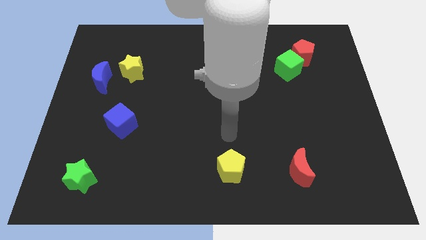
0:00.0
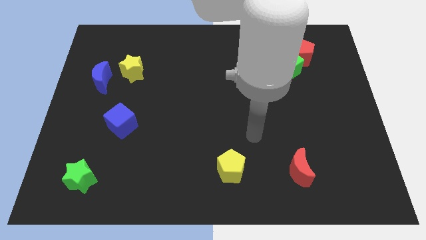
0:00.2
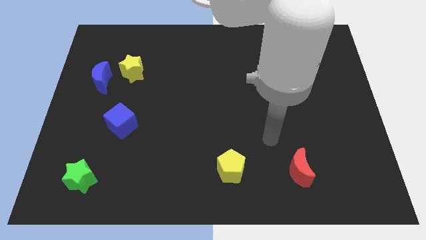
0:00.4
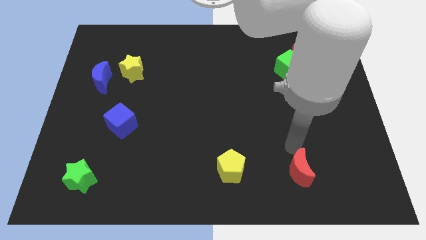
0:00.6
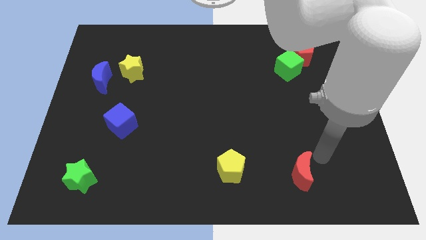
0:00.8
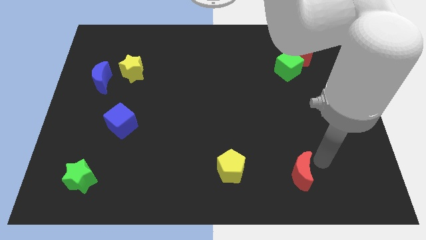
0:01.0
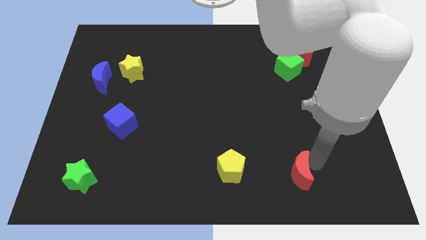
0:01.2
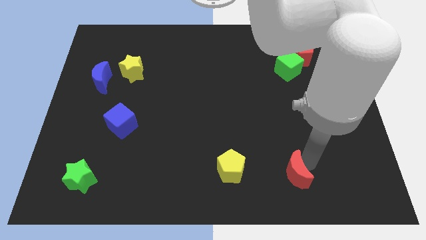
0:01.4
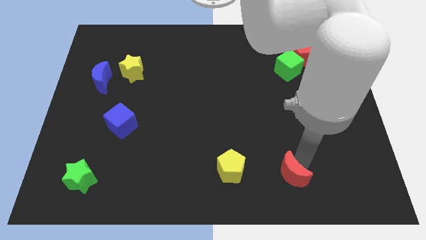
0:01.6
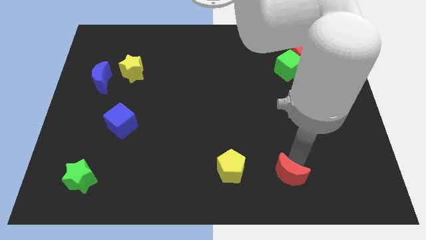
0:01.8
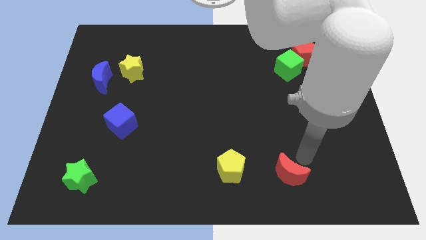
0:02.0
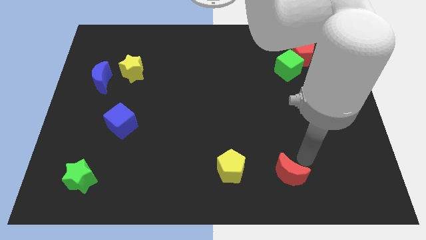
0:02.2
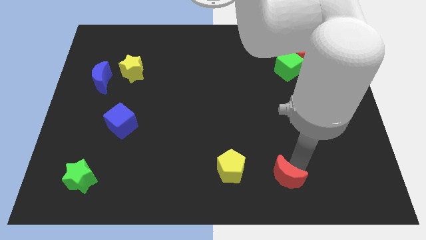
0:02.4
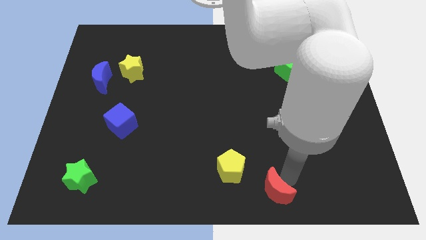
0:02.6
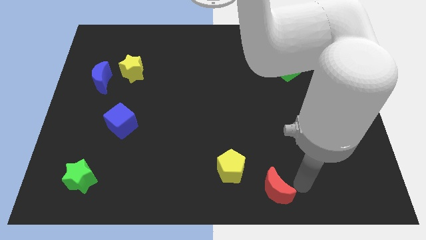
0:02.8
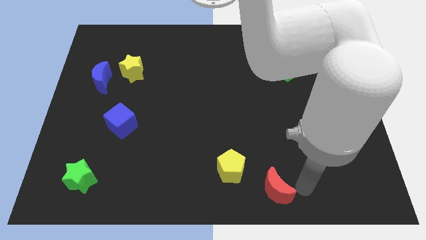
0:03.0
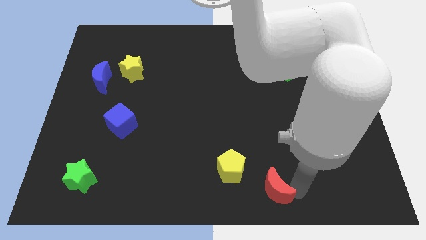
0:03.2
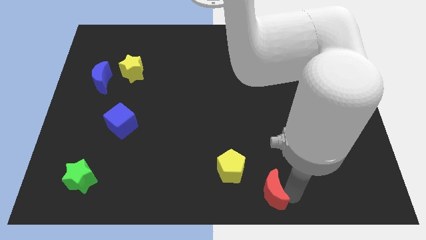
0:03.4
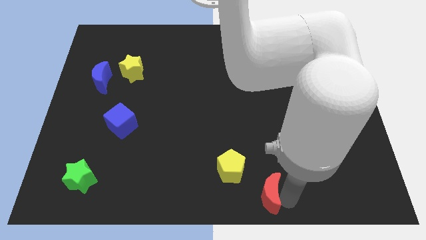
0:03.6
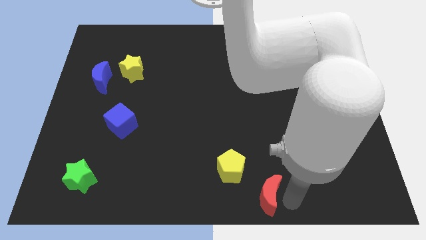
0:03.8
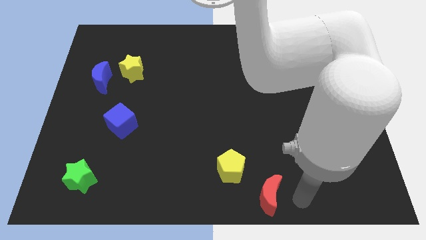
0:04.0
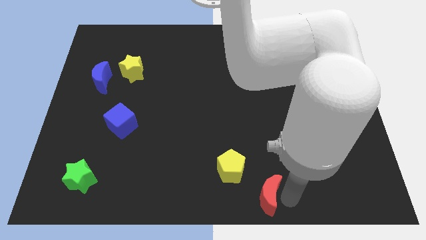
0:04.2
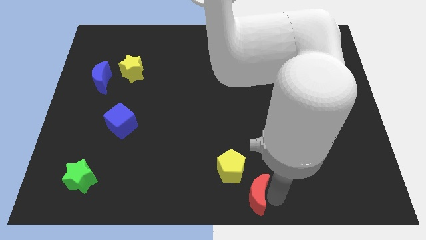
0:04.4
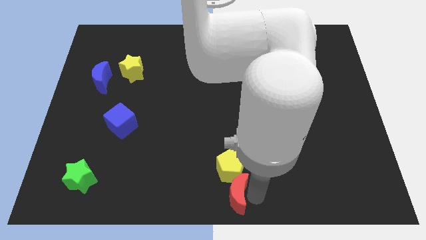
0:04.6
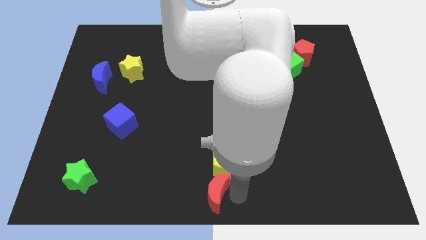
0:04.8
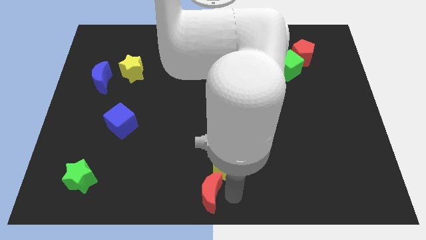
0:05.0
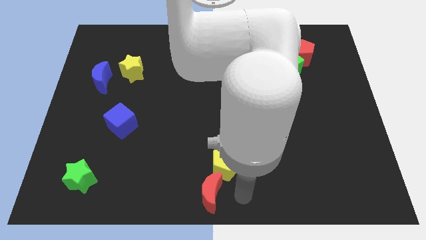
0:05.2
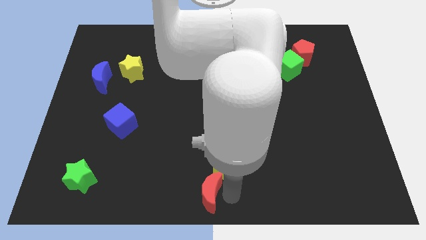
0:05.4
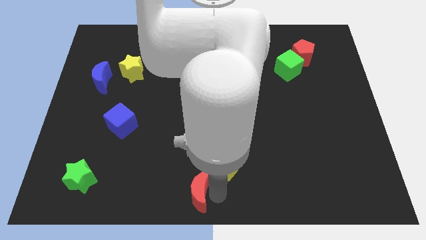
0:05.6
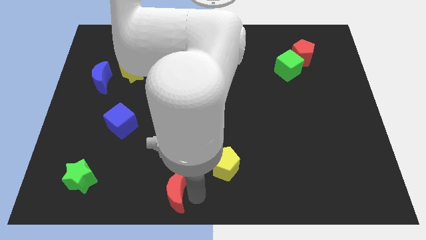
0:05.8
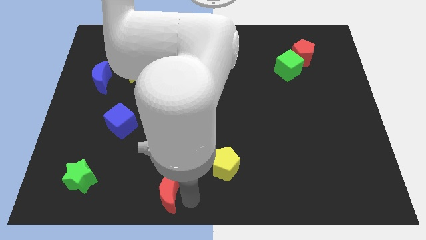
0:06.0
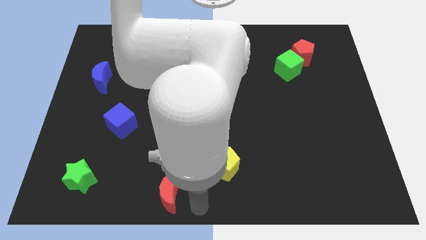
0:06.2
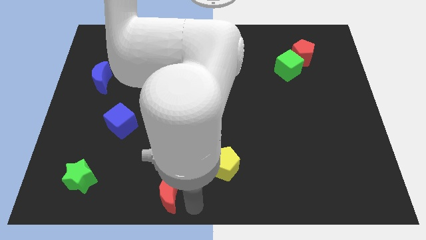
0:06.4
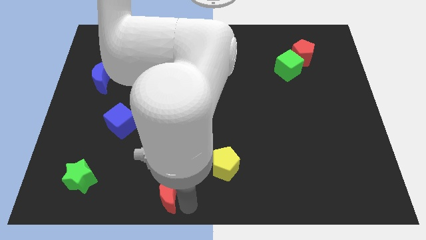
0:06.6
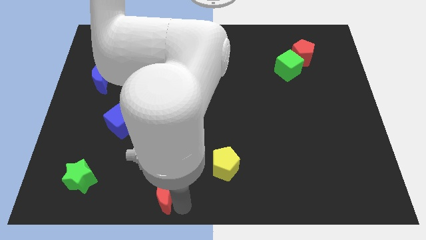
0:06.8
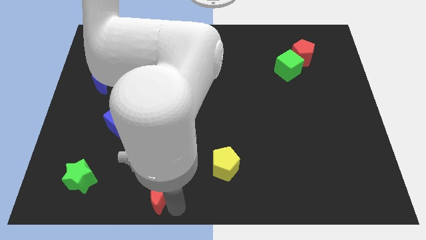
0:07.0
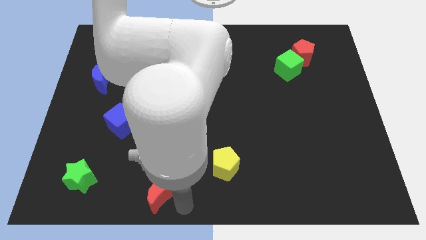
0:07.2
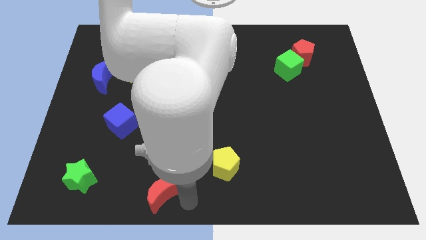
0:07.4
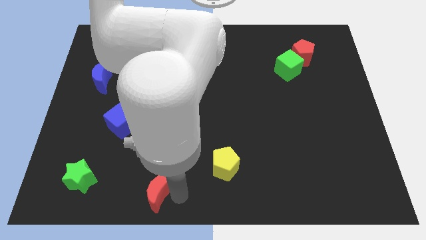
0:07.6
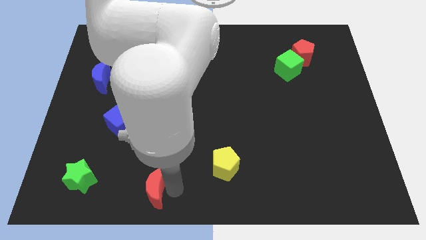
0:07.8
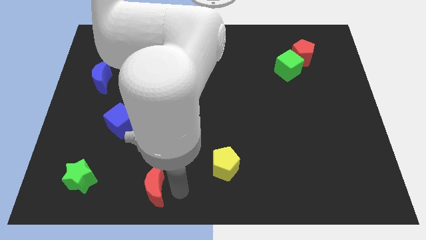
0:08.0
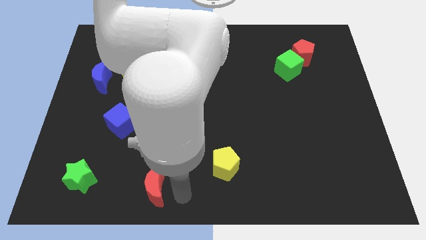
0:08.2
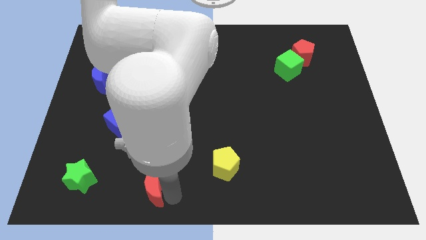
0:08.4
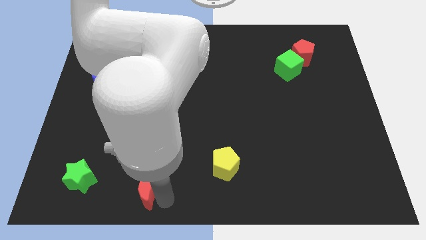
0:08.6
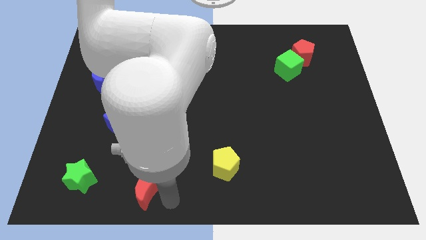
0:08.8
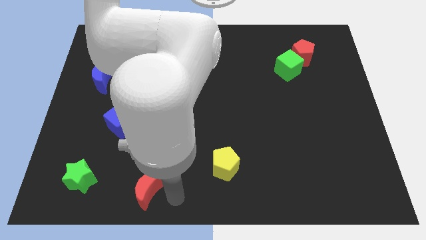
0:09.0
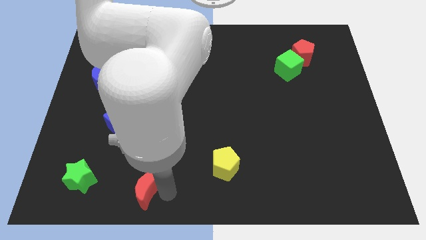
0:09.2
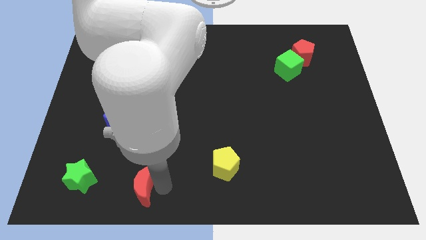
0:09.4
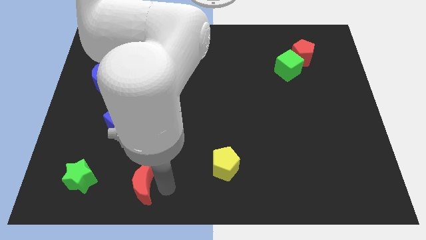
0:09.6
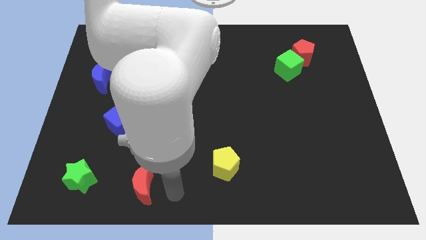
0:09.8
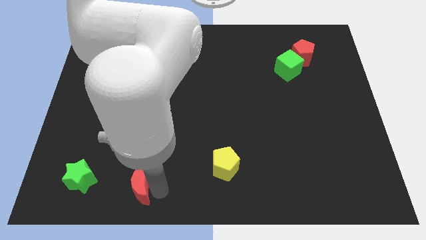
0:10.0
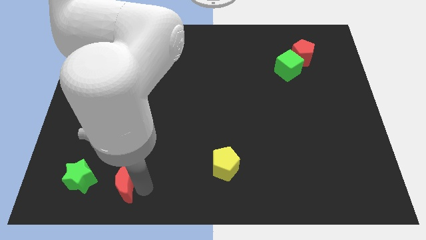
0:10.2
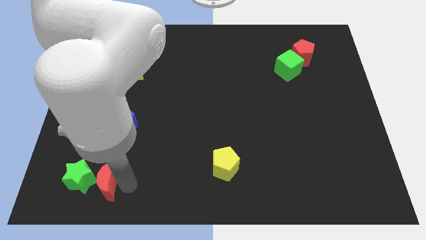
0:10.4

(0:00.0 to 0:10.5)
push the red moon towards the green star

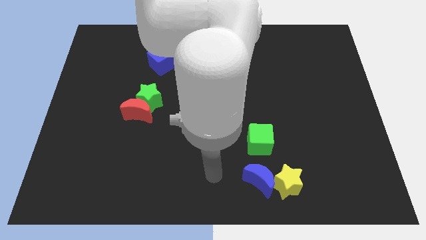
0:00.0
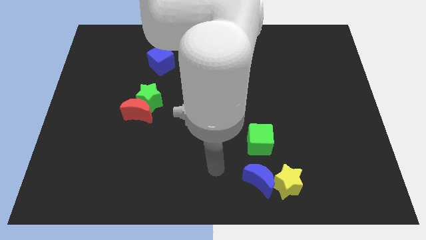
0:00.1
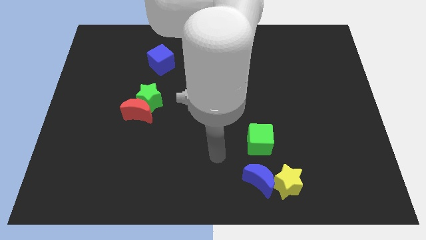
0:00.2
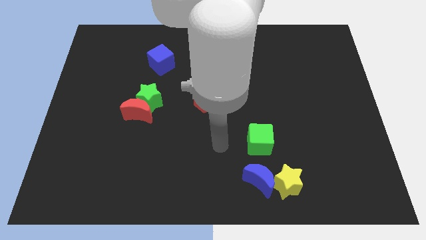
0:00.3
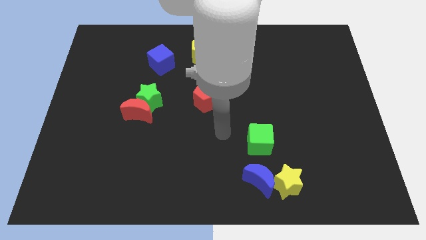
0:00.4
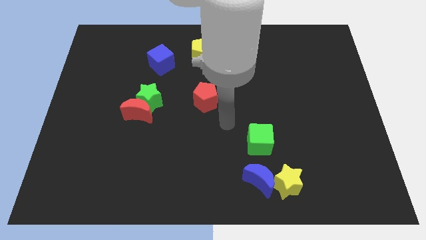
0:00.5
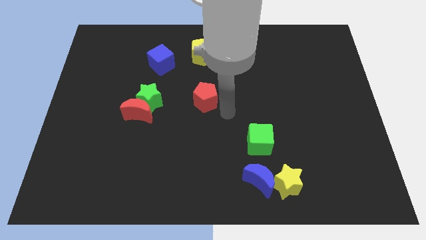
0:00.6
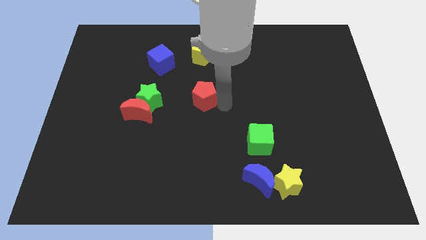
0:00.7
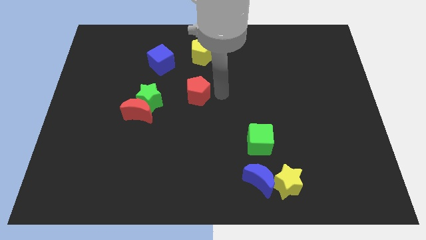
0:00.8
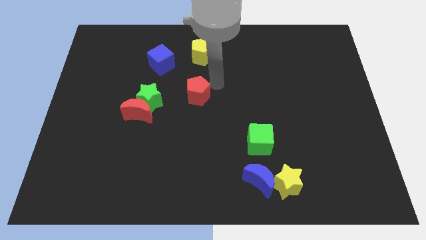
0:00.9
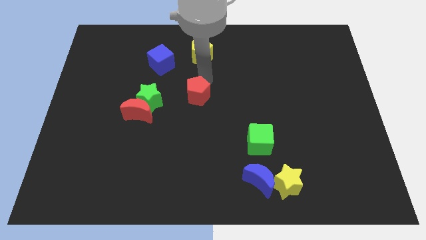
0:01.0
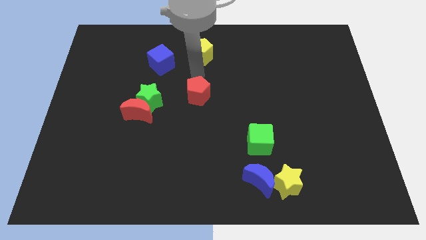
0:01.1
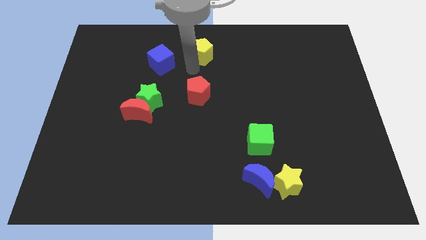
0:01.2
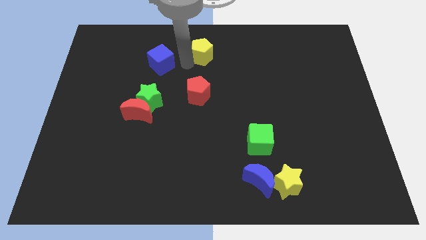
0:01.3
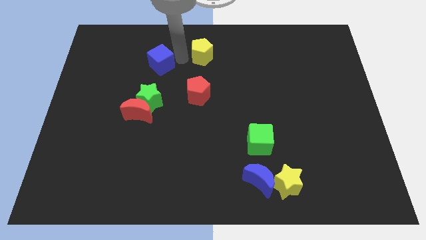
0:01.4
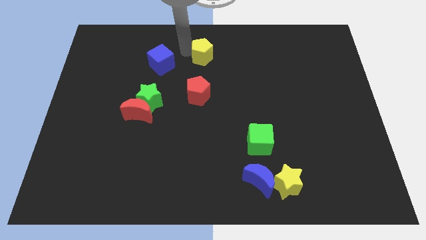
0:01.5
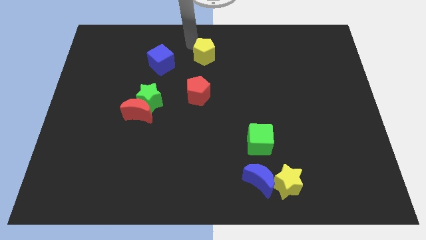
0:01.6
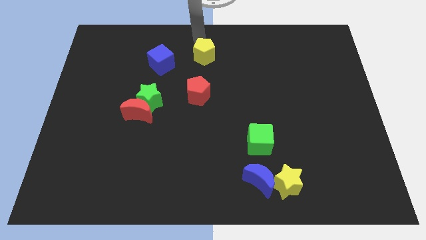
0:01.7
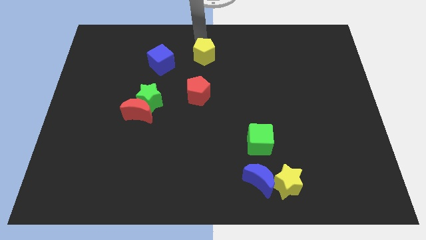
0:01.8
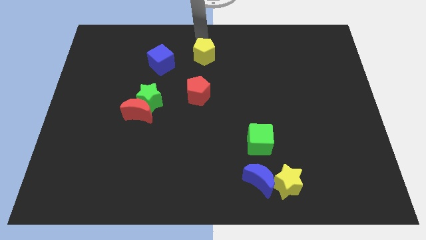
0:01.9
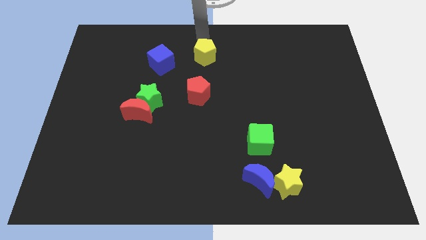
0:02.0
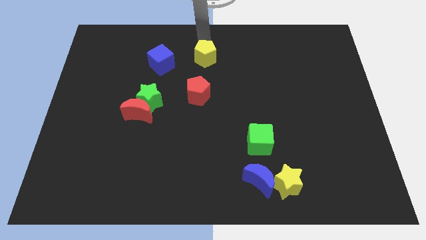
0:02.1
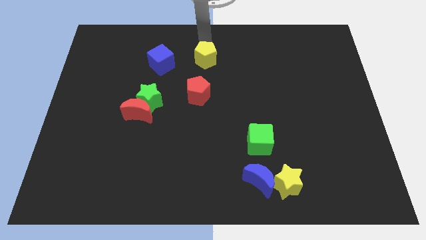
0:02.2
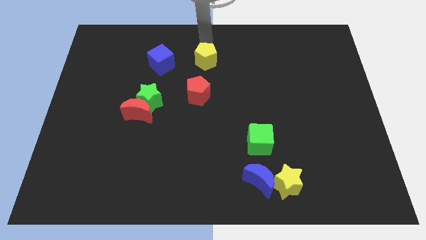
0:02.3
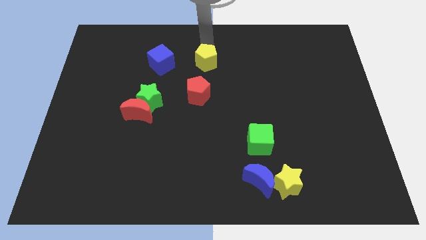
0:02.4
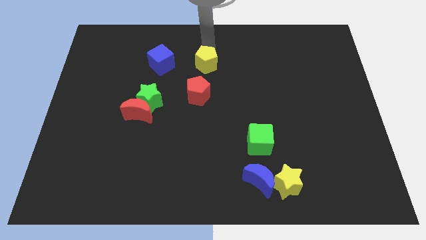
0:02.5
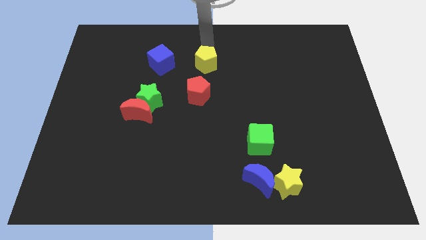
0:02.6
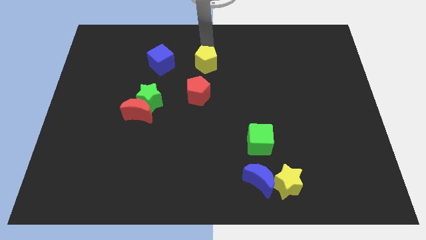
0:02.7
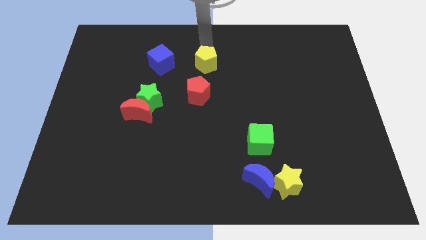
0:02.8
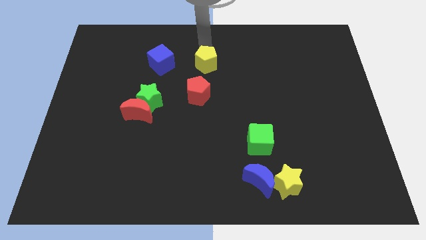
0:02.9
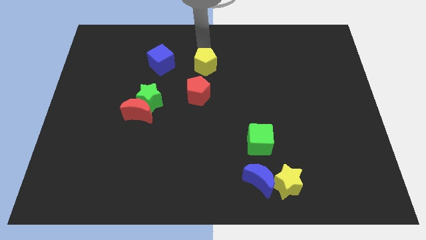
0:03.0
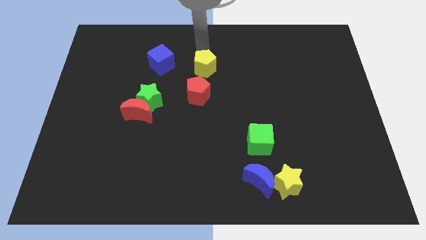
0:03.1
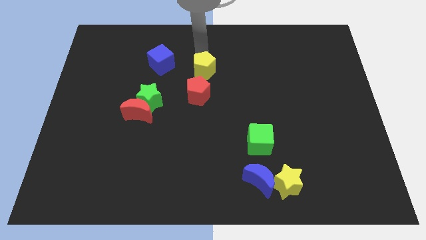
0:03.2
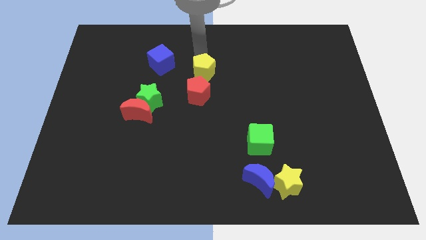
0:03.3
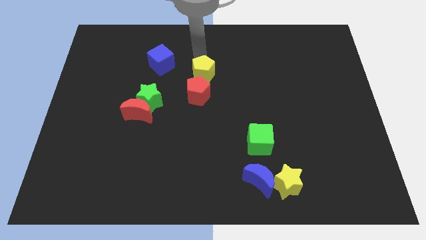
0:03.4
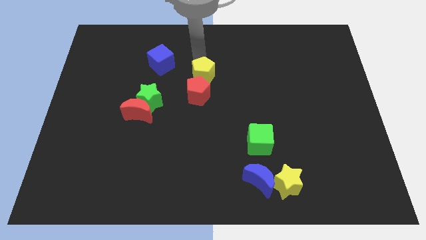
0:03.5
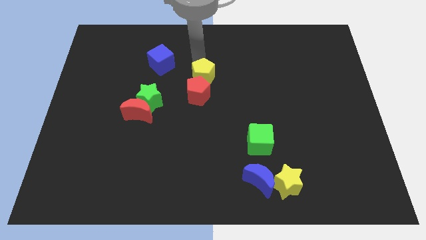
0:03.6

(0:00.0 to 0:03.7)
push the yellow pentagon close to the red pentagon
